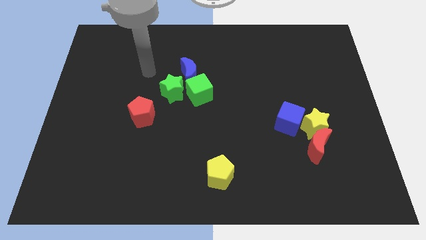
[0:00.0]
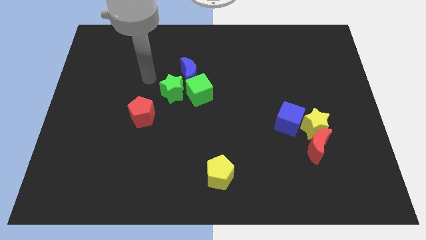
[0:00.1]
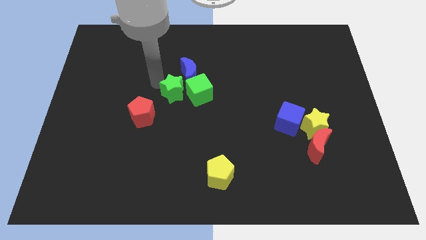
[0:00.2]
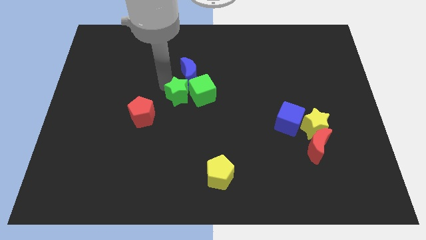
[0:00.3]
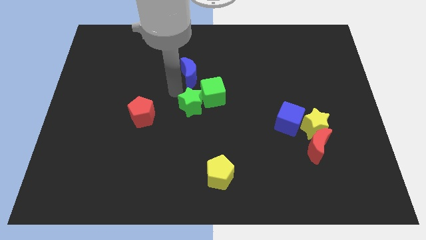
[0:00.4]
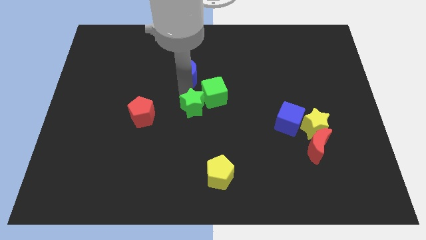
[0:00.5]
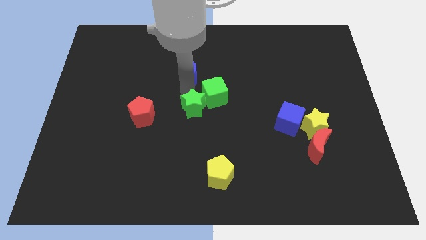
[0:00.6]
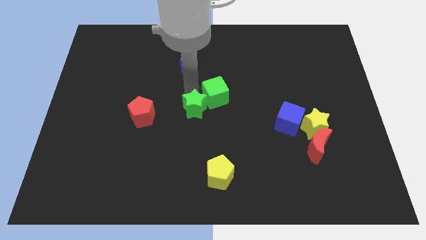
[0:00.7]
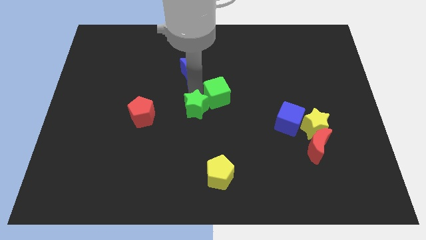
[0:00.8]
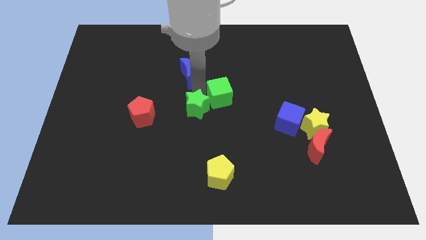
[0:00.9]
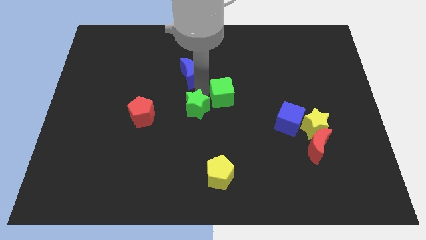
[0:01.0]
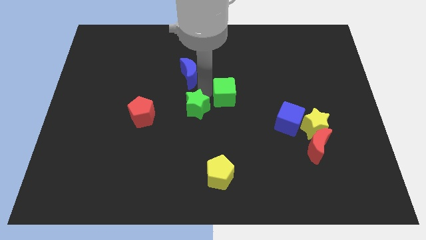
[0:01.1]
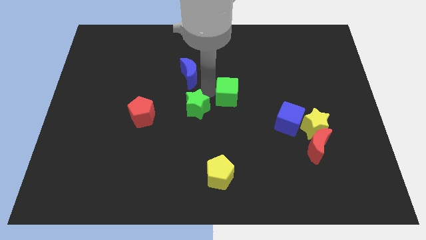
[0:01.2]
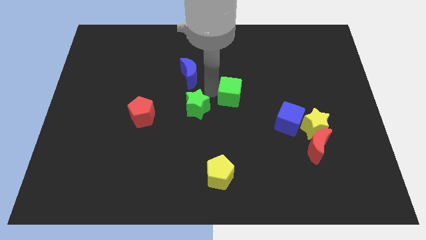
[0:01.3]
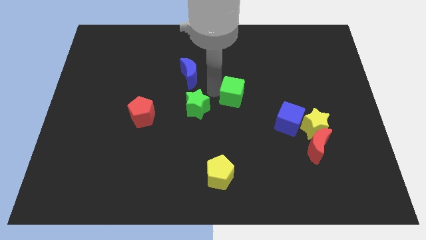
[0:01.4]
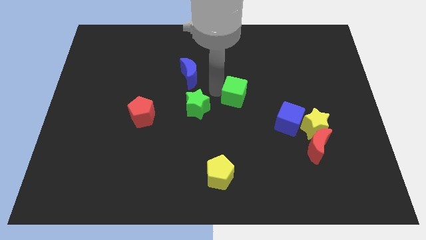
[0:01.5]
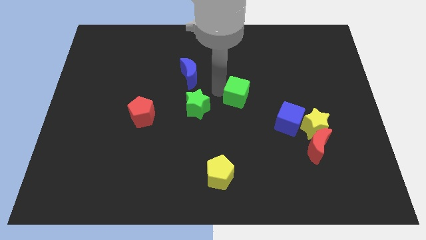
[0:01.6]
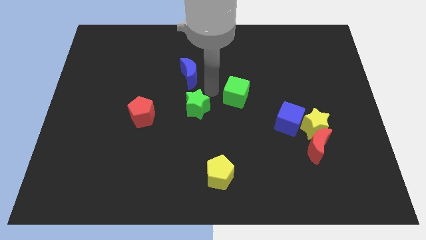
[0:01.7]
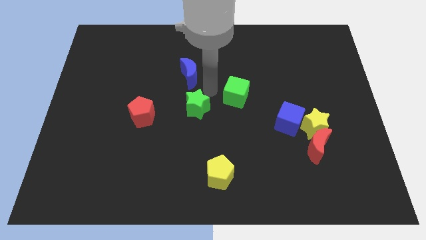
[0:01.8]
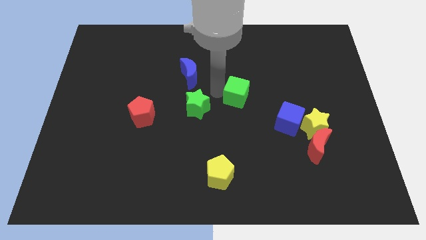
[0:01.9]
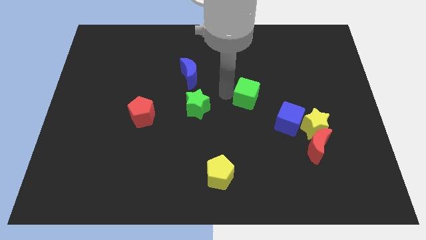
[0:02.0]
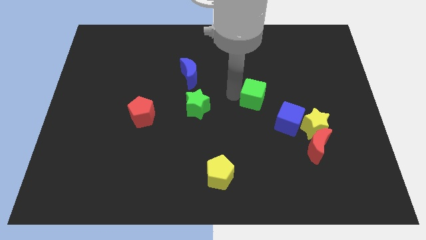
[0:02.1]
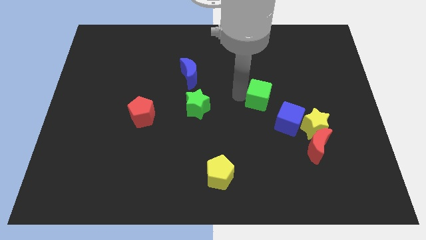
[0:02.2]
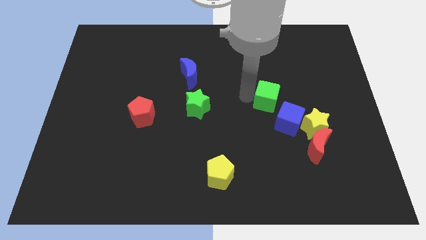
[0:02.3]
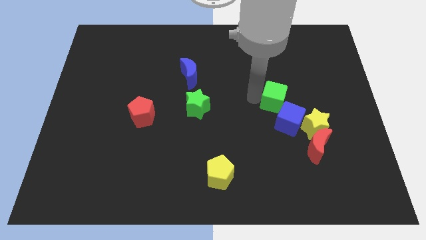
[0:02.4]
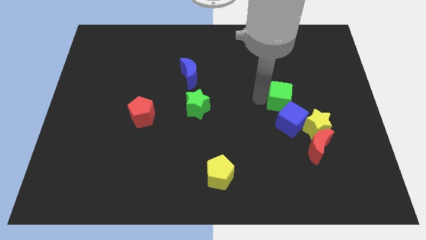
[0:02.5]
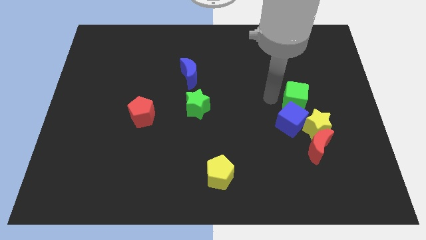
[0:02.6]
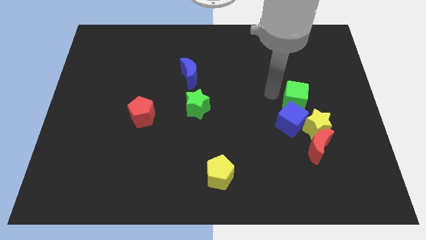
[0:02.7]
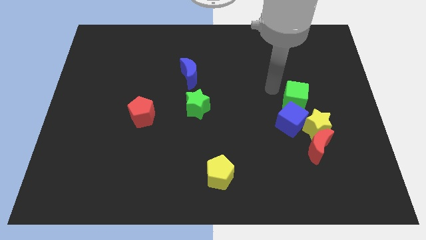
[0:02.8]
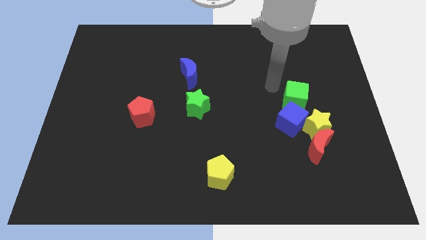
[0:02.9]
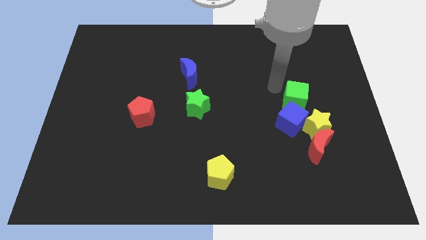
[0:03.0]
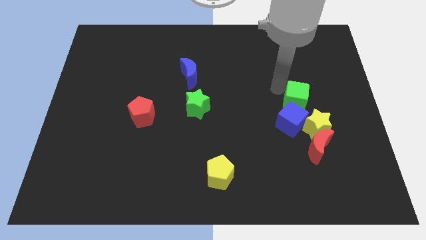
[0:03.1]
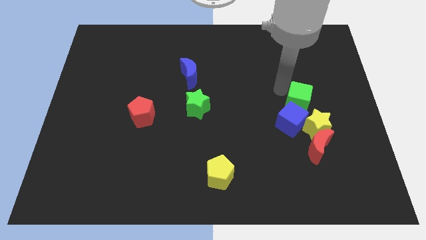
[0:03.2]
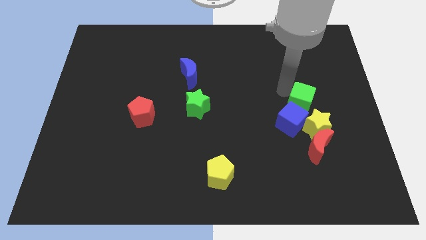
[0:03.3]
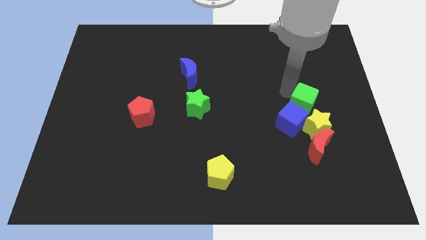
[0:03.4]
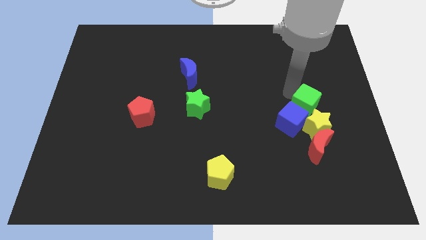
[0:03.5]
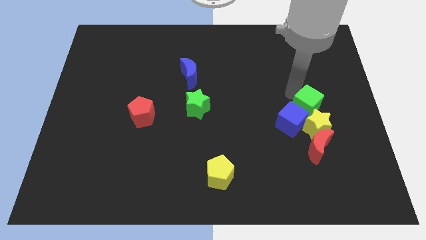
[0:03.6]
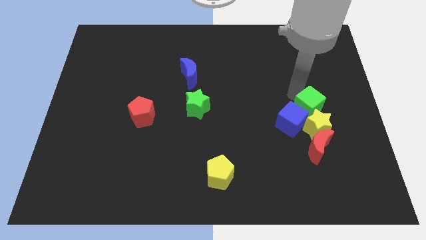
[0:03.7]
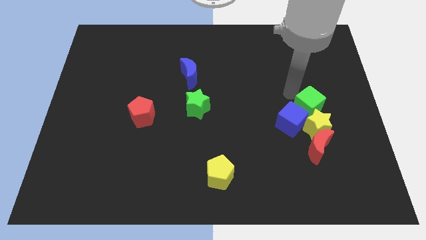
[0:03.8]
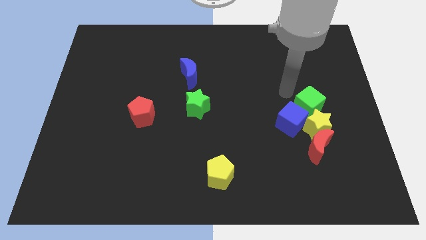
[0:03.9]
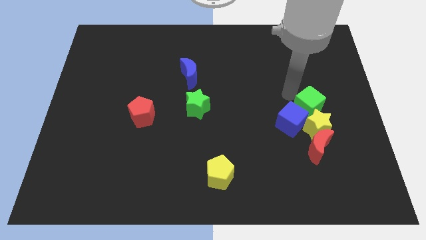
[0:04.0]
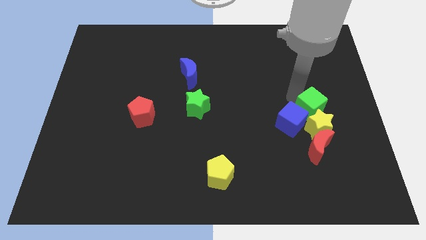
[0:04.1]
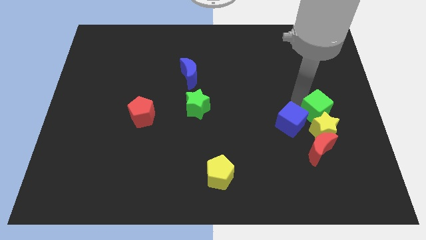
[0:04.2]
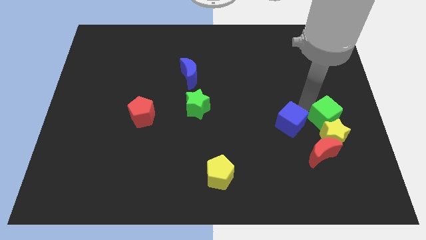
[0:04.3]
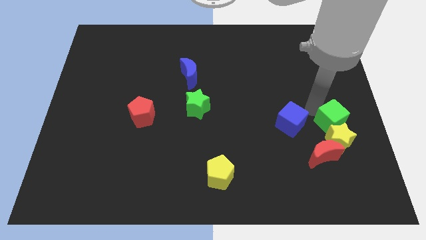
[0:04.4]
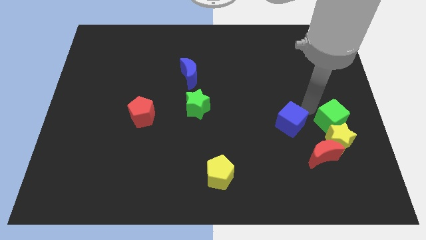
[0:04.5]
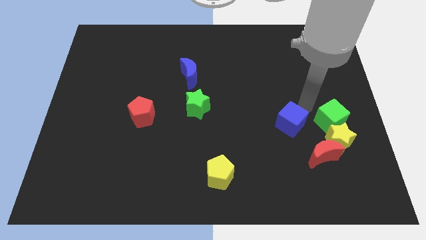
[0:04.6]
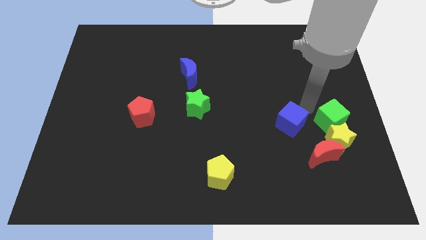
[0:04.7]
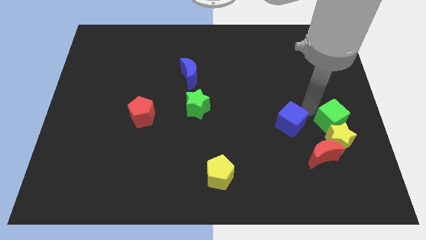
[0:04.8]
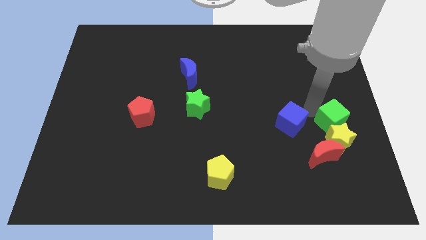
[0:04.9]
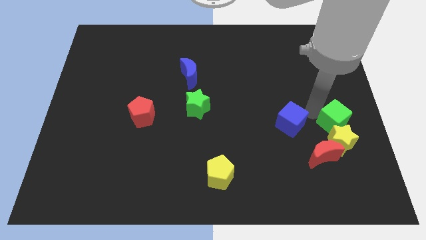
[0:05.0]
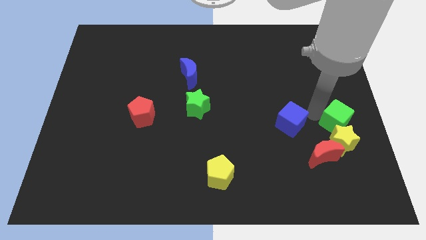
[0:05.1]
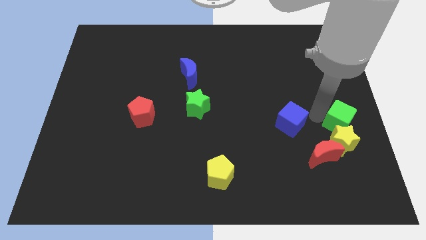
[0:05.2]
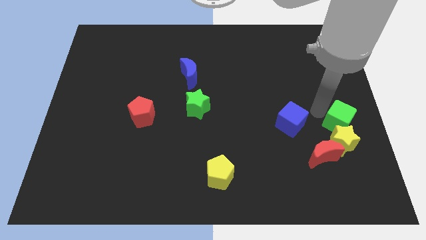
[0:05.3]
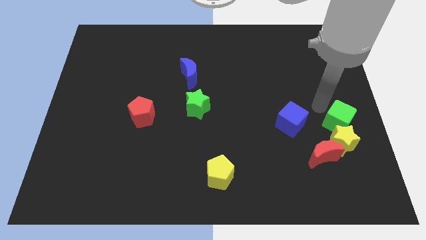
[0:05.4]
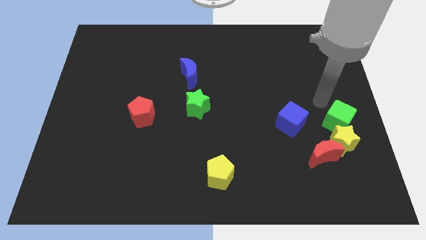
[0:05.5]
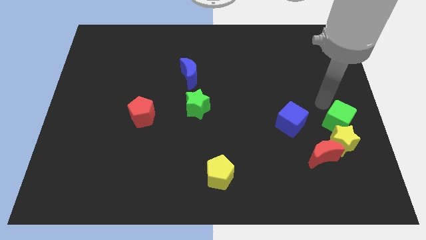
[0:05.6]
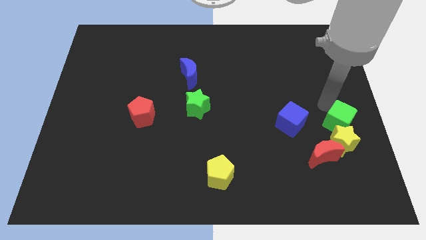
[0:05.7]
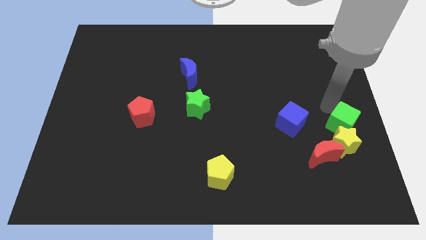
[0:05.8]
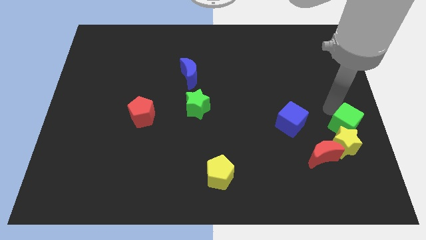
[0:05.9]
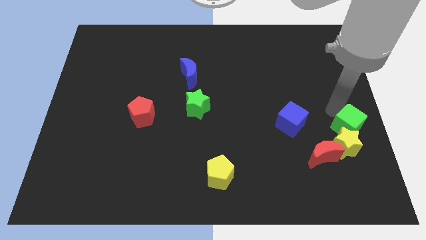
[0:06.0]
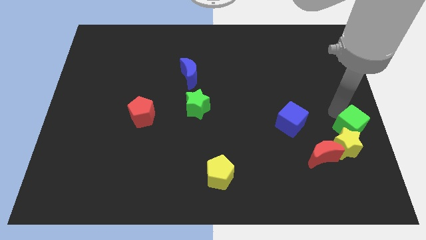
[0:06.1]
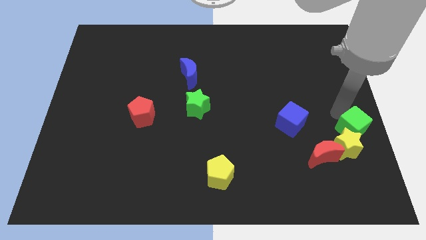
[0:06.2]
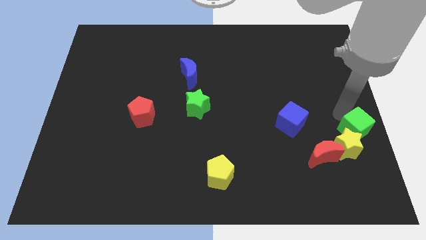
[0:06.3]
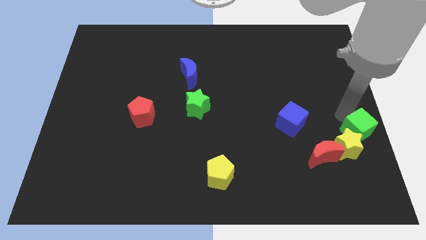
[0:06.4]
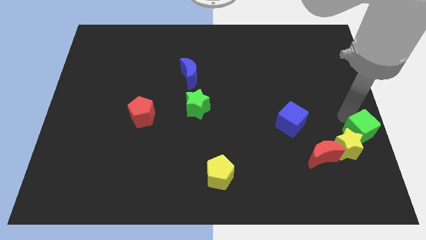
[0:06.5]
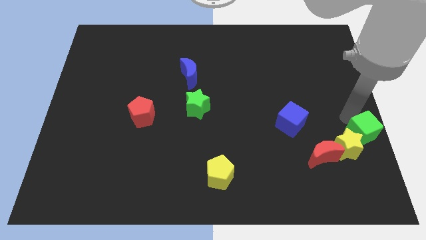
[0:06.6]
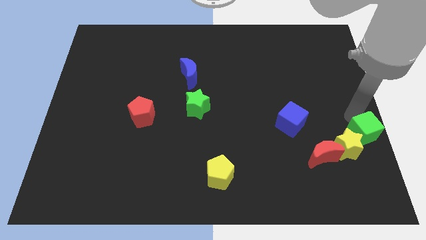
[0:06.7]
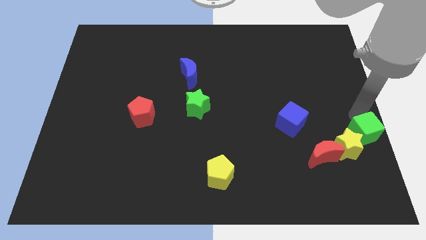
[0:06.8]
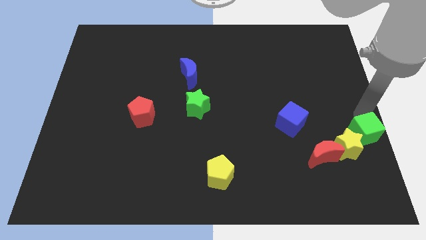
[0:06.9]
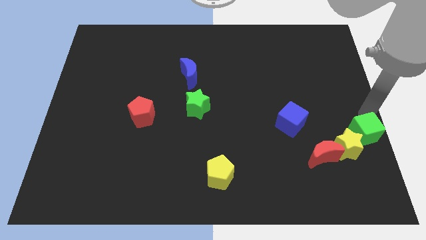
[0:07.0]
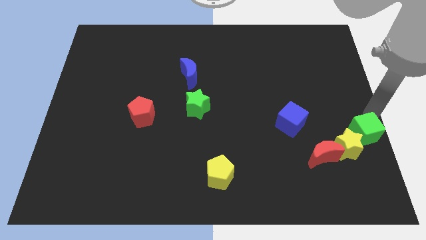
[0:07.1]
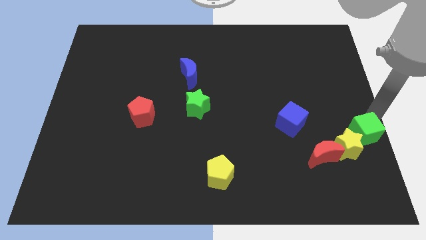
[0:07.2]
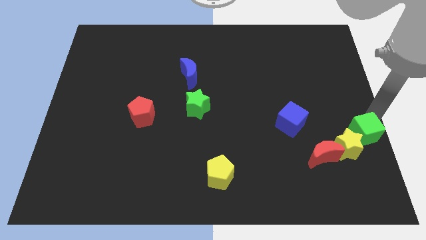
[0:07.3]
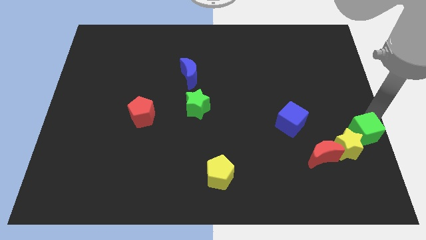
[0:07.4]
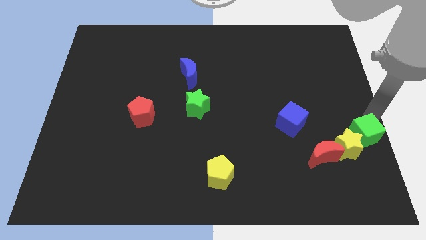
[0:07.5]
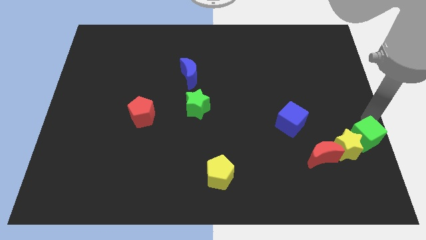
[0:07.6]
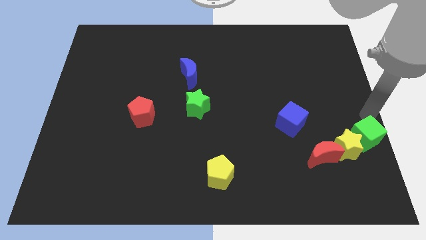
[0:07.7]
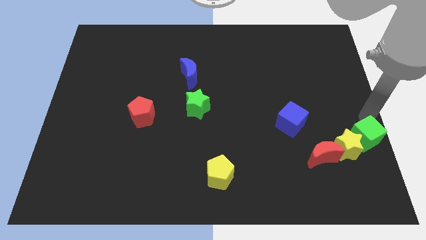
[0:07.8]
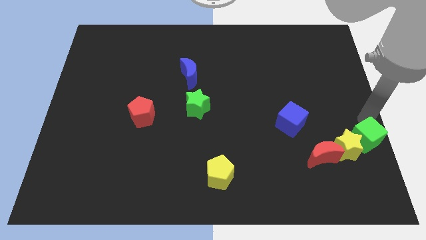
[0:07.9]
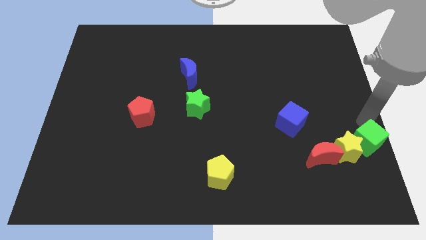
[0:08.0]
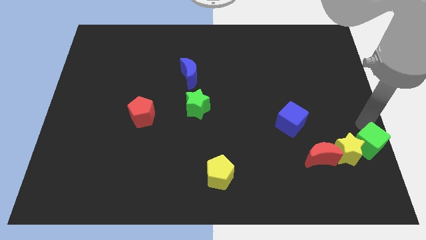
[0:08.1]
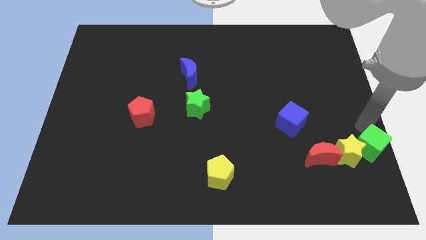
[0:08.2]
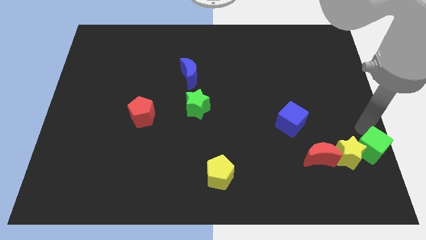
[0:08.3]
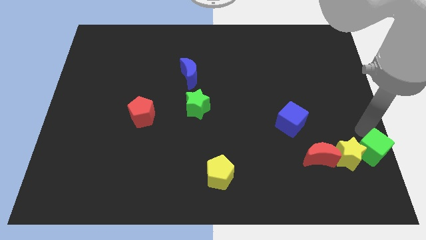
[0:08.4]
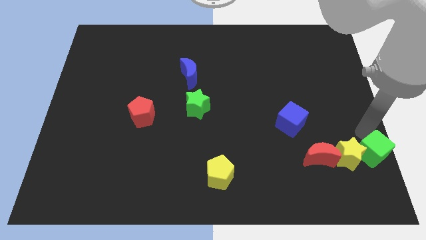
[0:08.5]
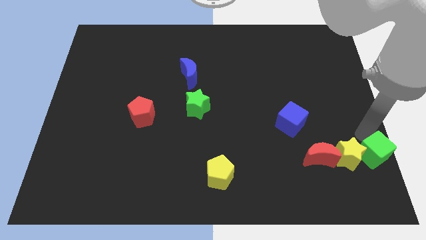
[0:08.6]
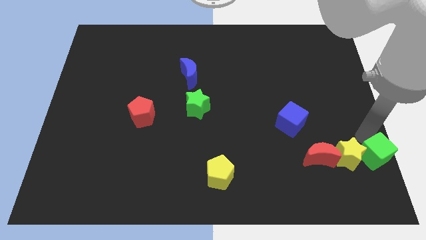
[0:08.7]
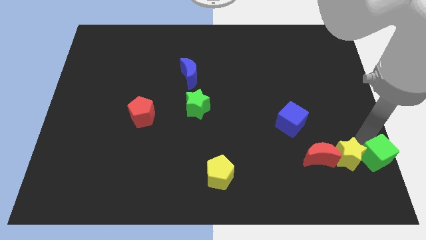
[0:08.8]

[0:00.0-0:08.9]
slide the green cube to the bottom right corner
